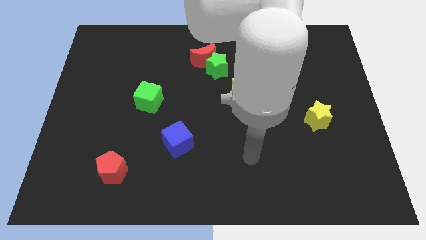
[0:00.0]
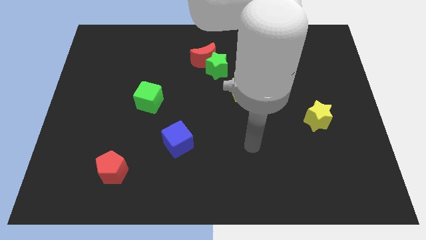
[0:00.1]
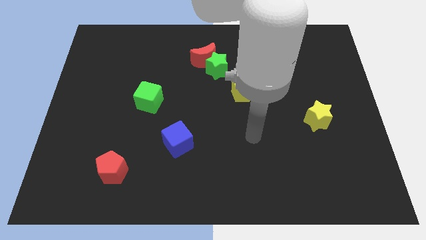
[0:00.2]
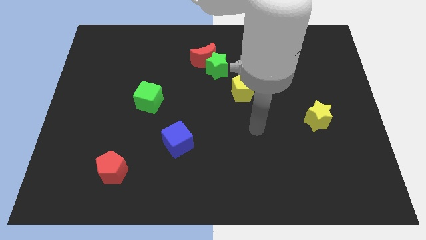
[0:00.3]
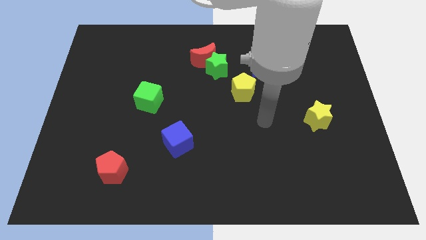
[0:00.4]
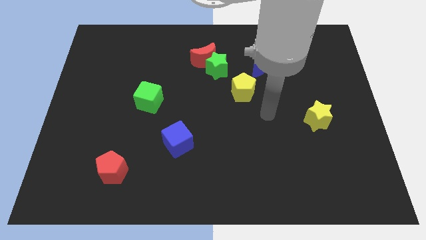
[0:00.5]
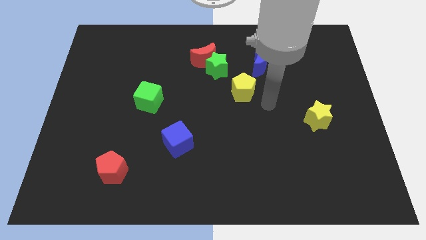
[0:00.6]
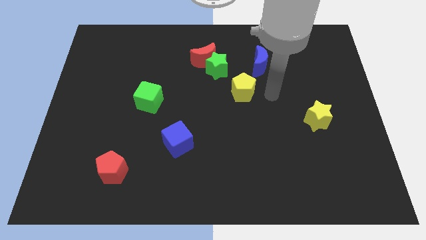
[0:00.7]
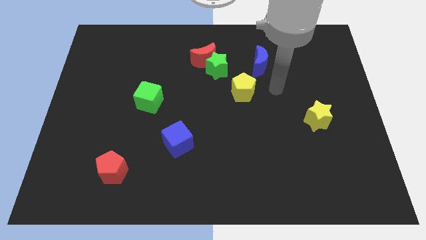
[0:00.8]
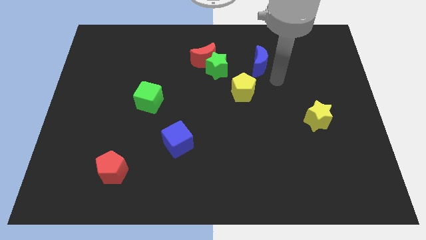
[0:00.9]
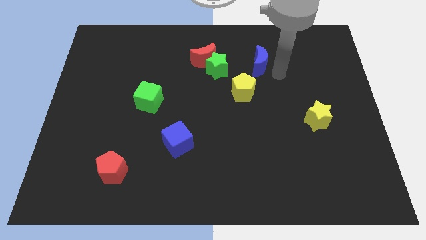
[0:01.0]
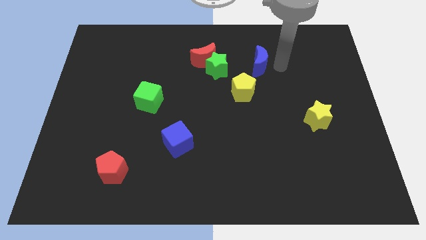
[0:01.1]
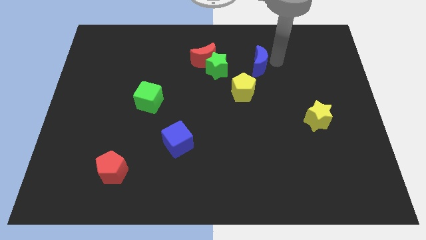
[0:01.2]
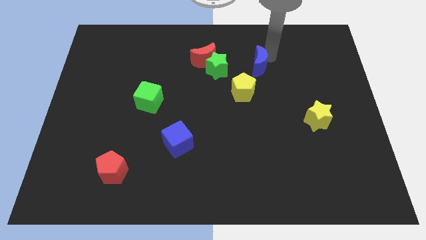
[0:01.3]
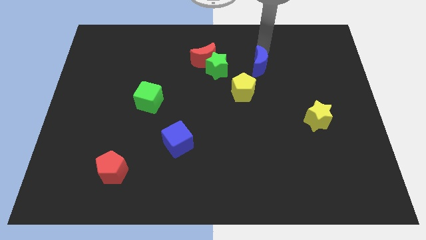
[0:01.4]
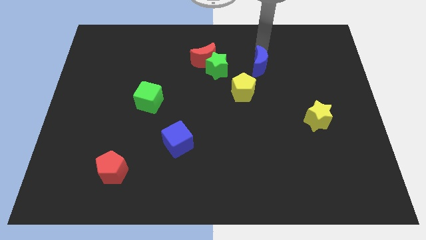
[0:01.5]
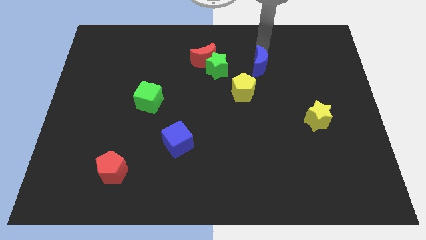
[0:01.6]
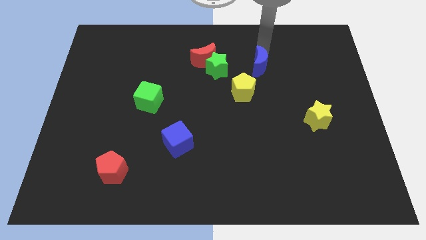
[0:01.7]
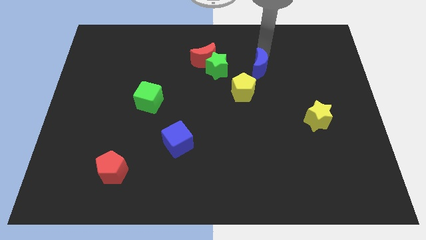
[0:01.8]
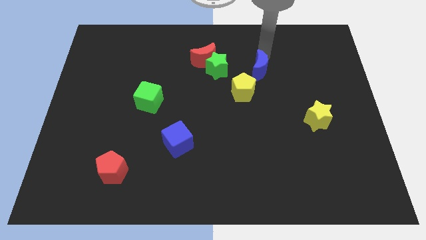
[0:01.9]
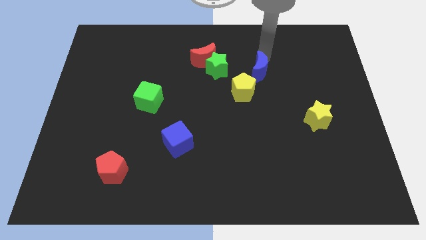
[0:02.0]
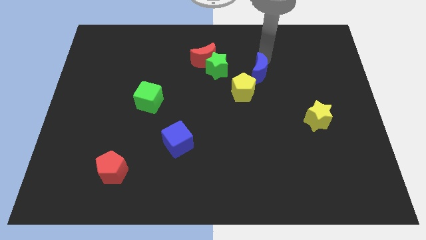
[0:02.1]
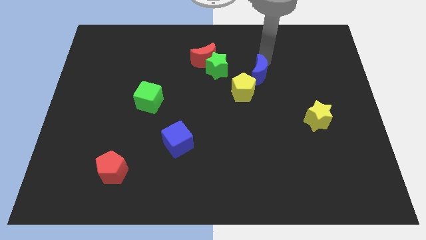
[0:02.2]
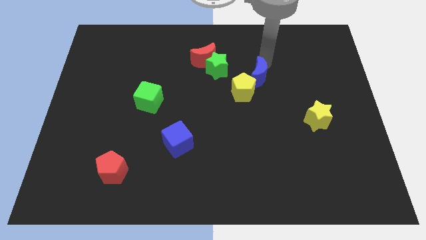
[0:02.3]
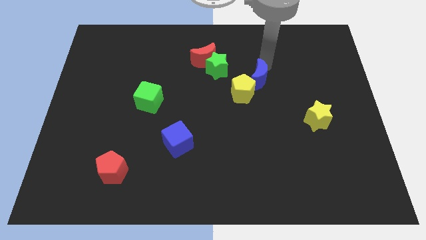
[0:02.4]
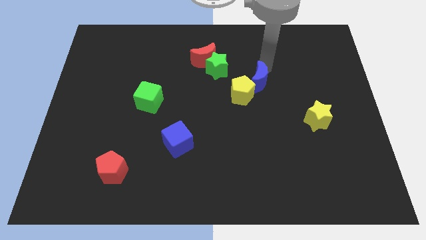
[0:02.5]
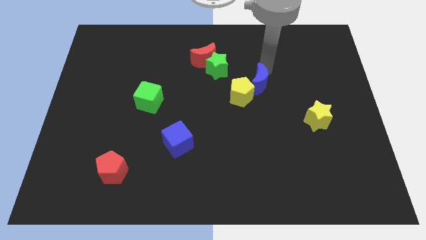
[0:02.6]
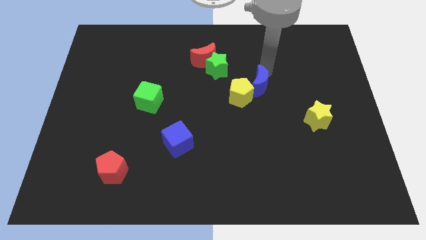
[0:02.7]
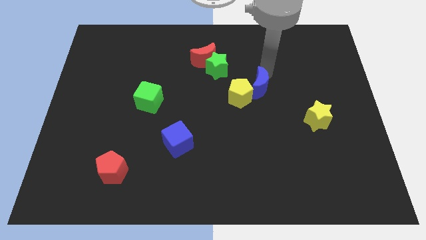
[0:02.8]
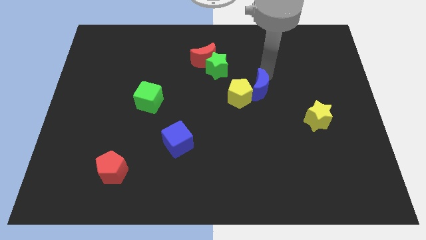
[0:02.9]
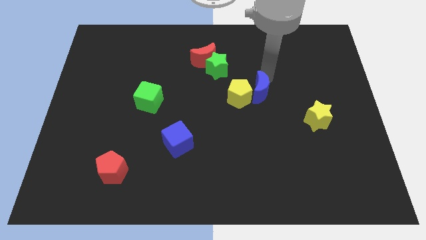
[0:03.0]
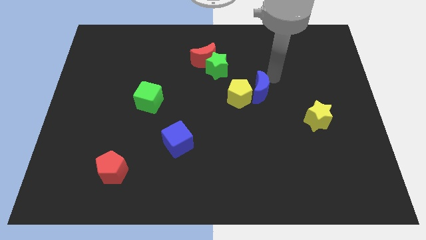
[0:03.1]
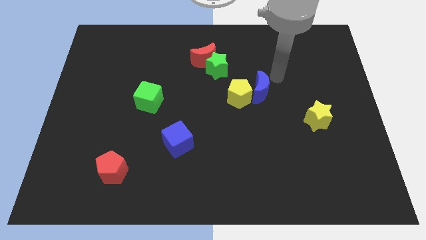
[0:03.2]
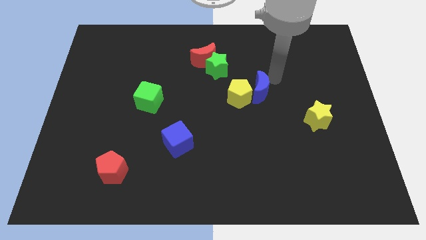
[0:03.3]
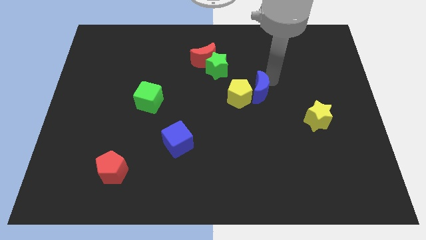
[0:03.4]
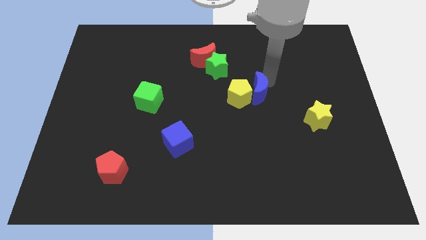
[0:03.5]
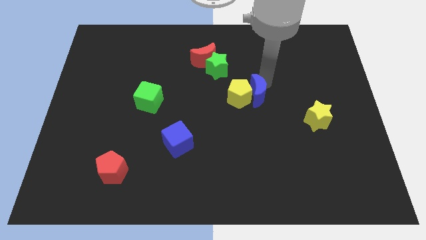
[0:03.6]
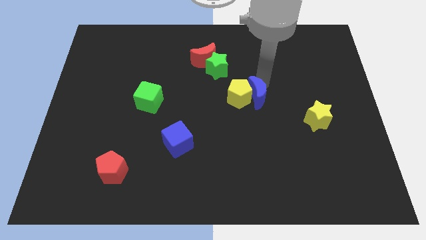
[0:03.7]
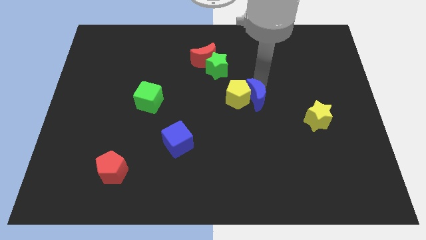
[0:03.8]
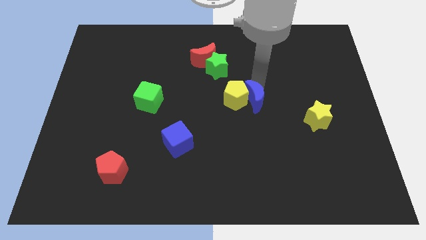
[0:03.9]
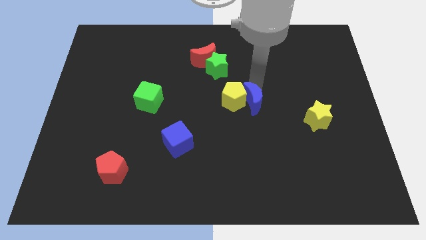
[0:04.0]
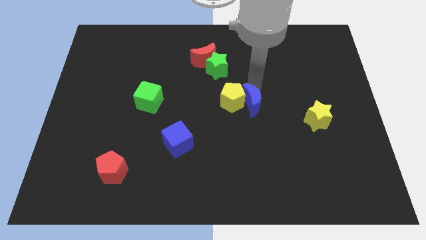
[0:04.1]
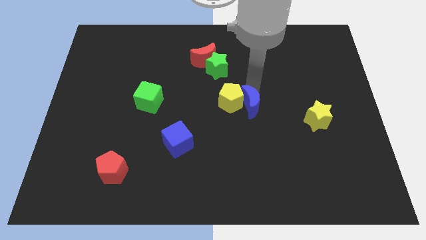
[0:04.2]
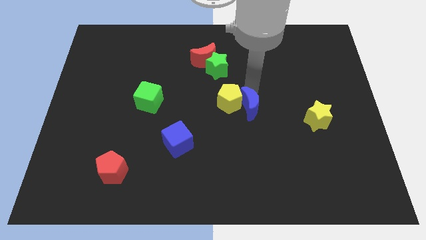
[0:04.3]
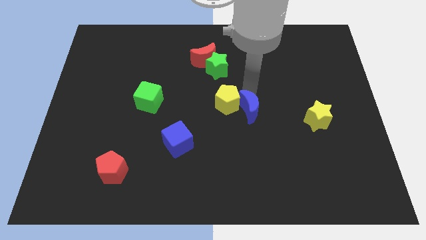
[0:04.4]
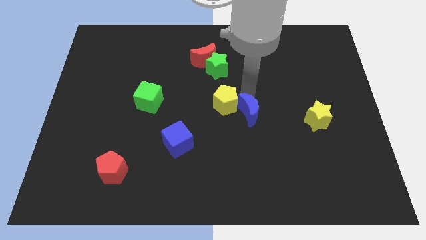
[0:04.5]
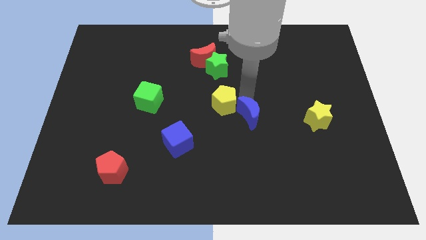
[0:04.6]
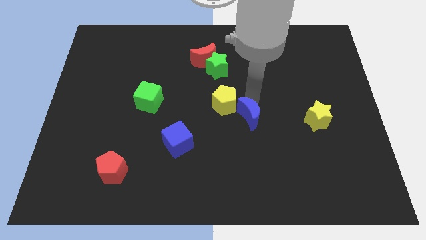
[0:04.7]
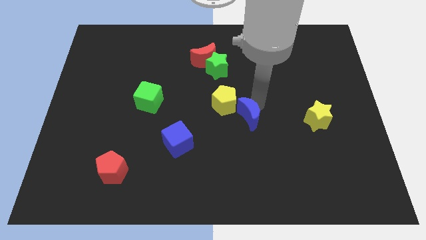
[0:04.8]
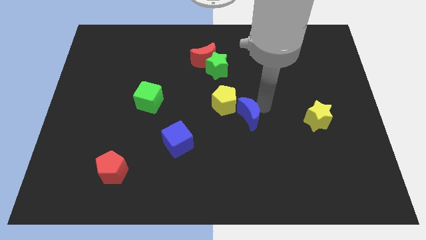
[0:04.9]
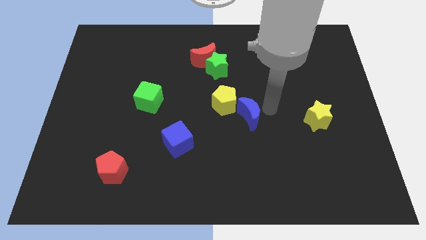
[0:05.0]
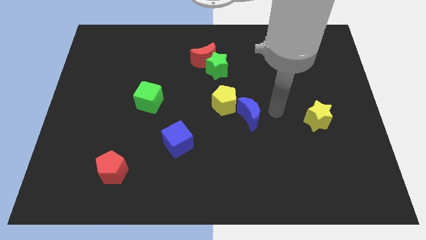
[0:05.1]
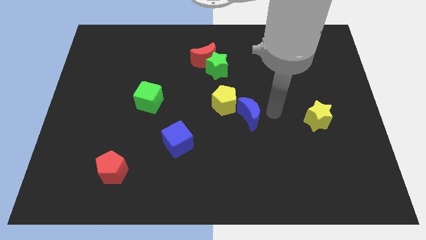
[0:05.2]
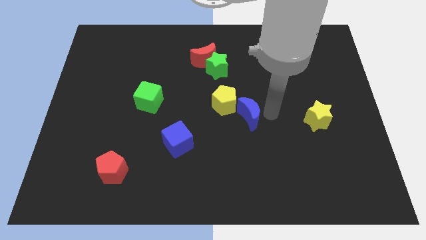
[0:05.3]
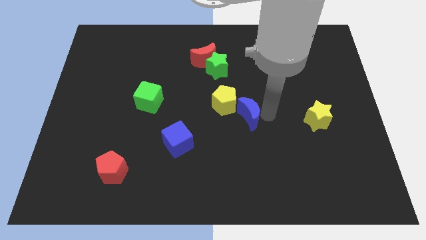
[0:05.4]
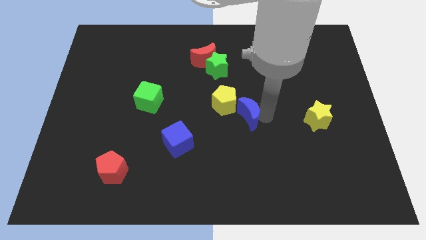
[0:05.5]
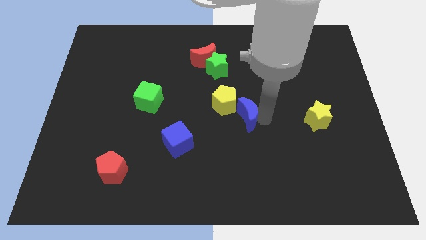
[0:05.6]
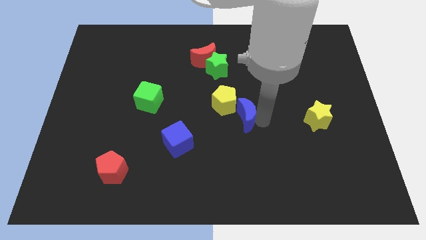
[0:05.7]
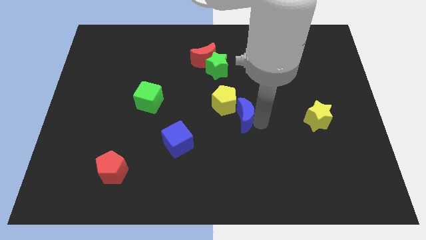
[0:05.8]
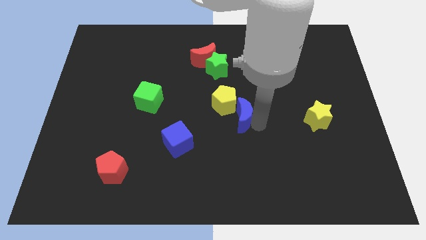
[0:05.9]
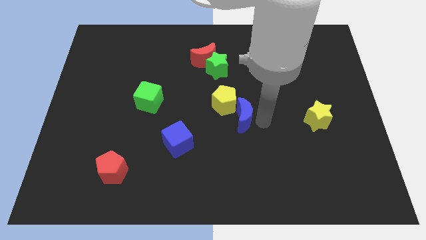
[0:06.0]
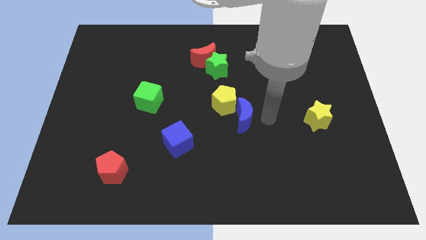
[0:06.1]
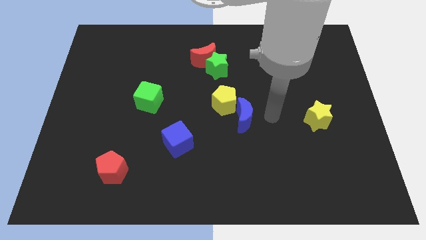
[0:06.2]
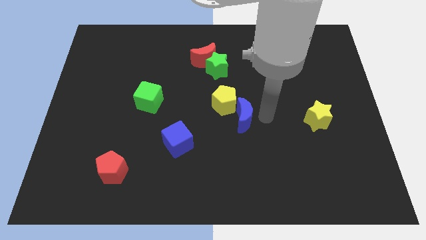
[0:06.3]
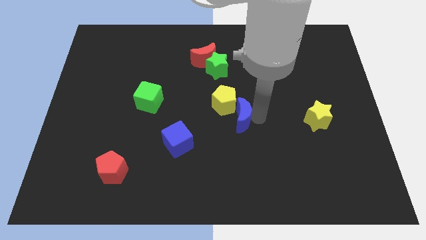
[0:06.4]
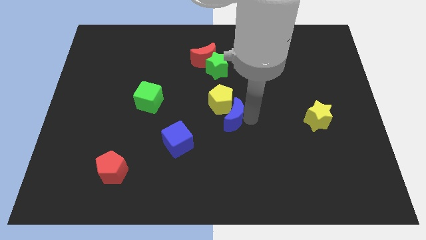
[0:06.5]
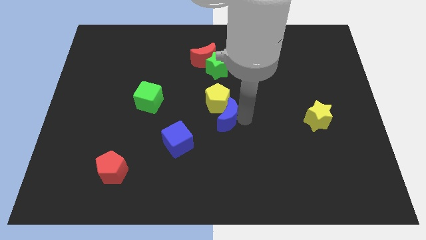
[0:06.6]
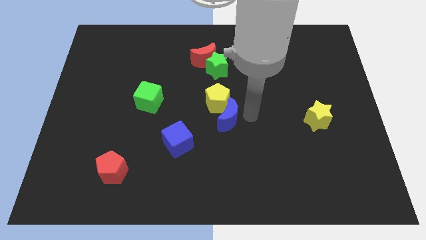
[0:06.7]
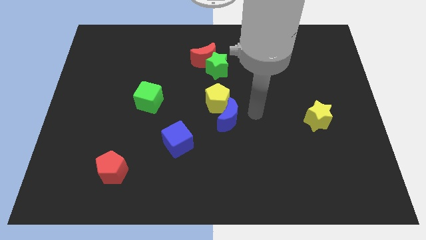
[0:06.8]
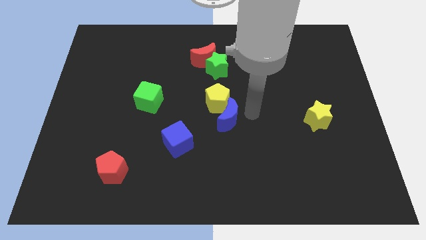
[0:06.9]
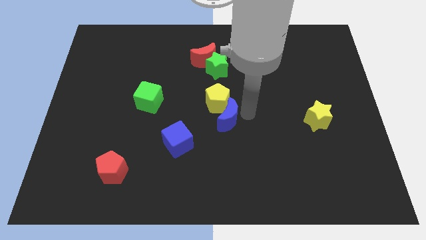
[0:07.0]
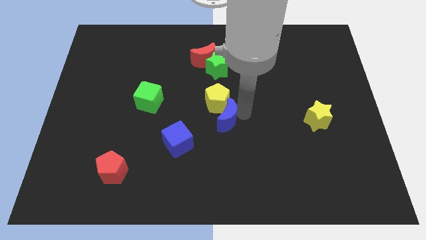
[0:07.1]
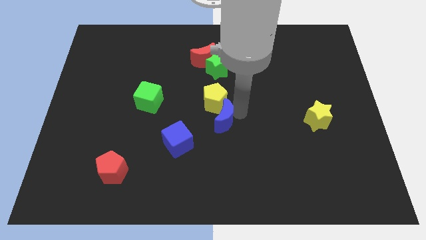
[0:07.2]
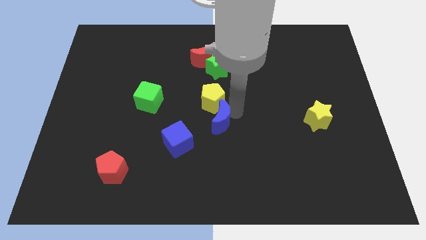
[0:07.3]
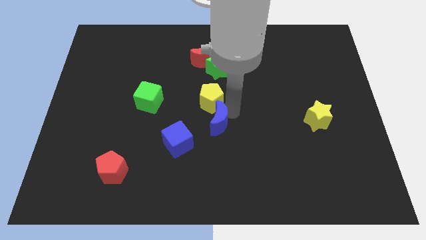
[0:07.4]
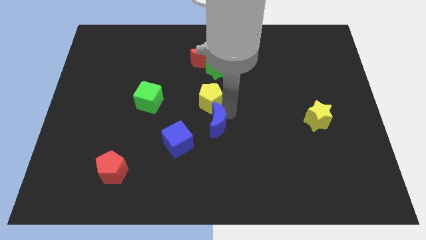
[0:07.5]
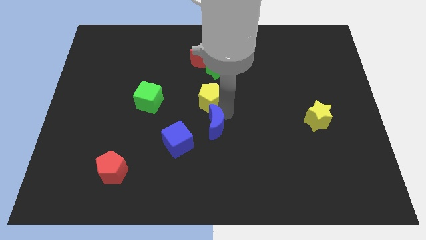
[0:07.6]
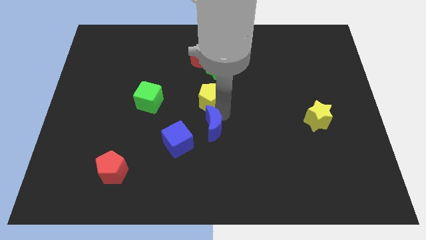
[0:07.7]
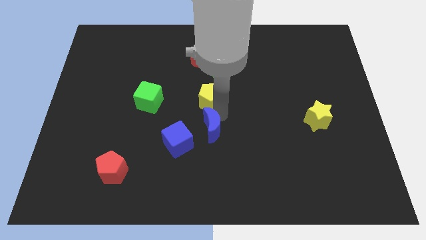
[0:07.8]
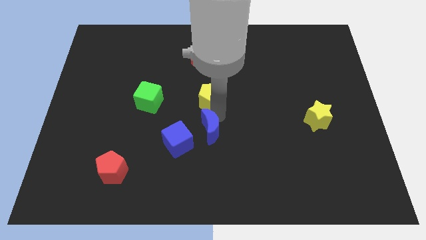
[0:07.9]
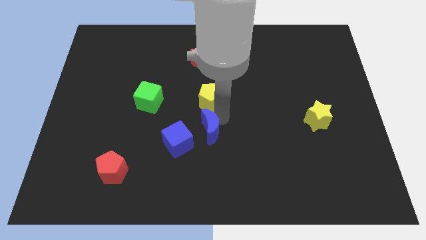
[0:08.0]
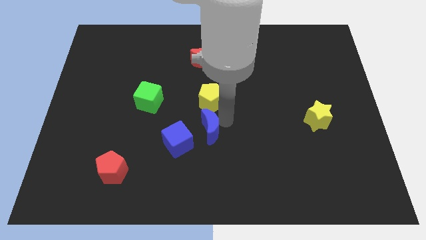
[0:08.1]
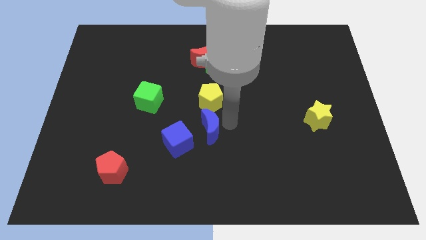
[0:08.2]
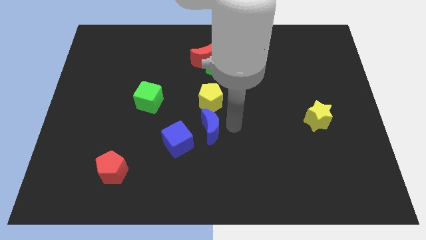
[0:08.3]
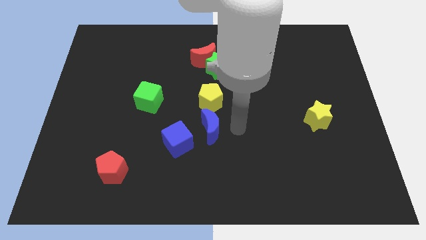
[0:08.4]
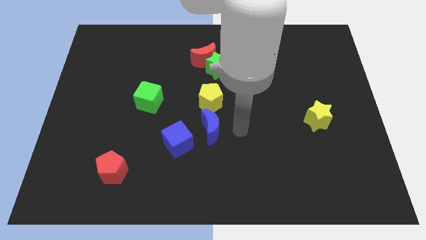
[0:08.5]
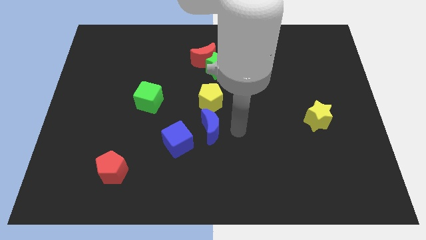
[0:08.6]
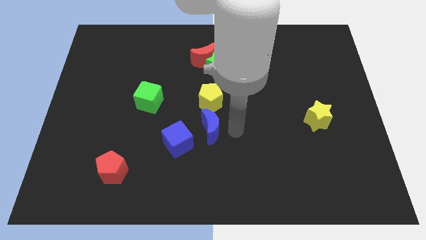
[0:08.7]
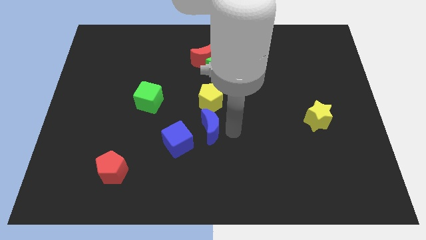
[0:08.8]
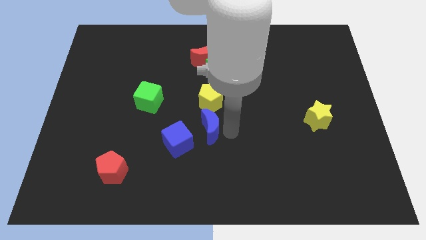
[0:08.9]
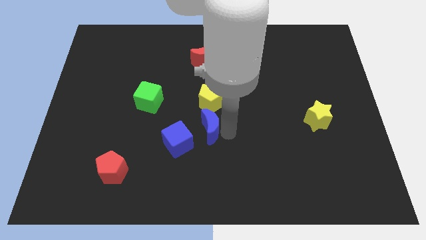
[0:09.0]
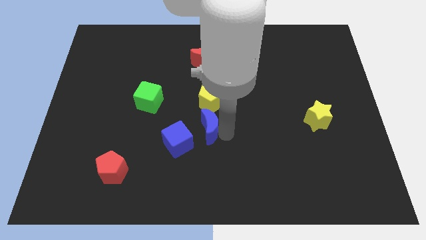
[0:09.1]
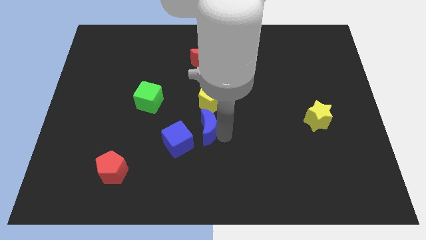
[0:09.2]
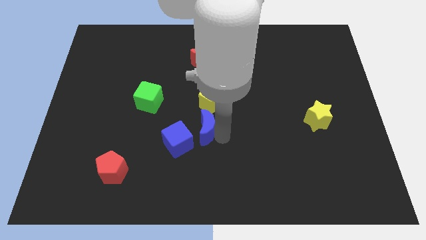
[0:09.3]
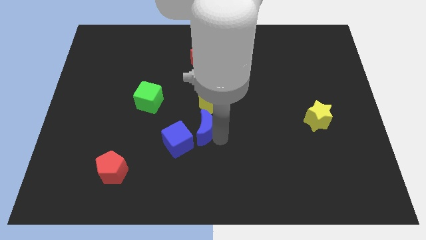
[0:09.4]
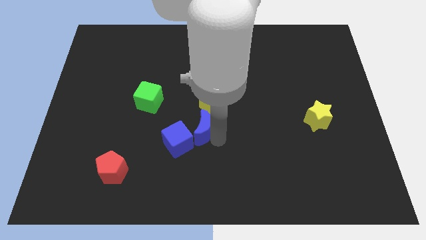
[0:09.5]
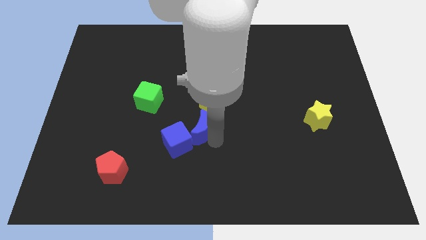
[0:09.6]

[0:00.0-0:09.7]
push the blue moon to the blue cube
